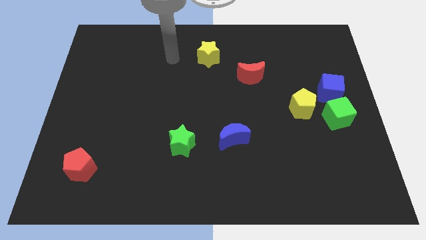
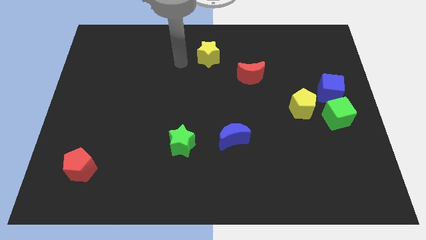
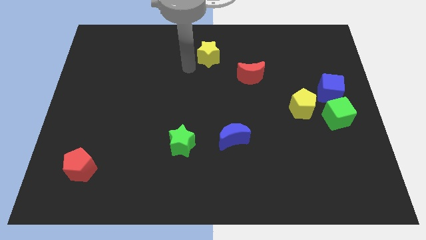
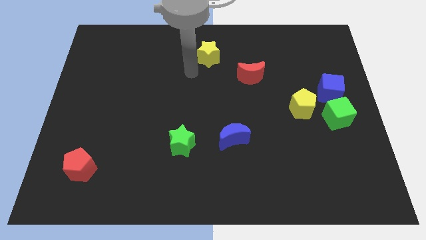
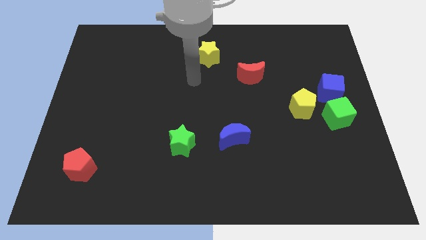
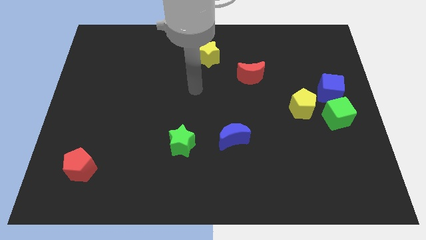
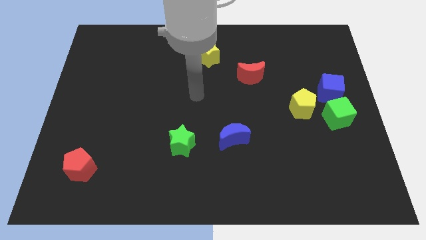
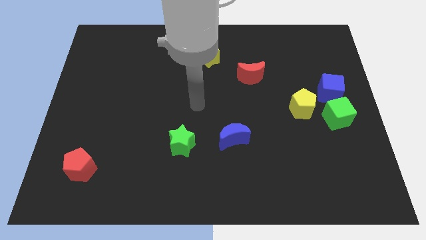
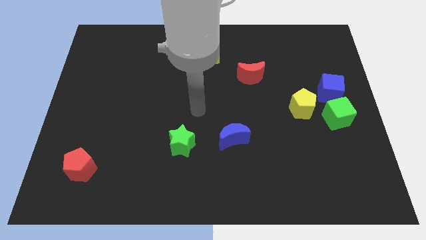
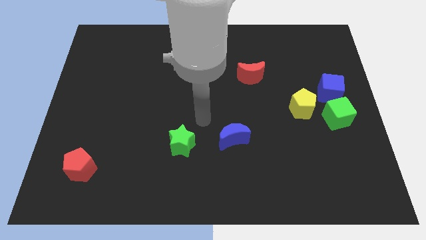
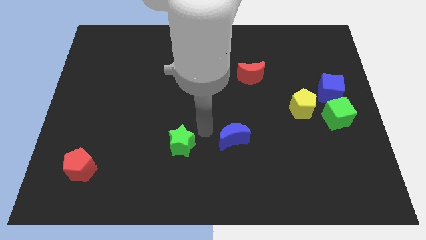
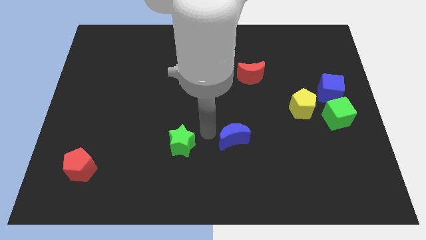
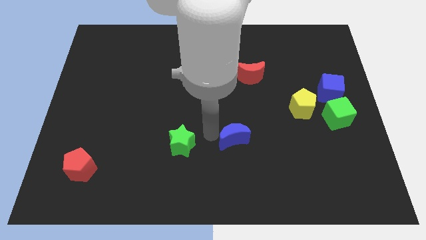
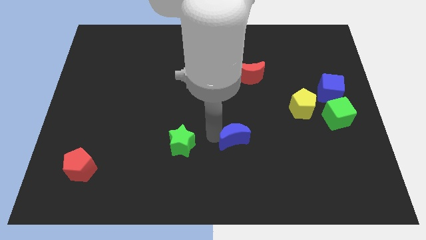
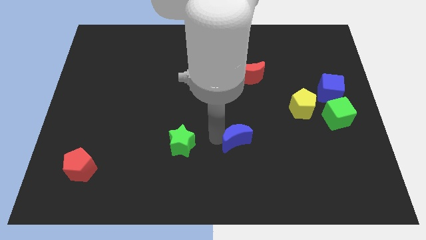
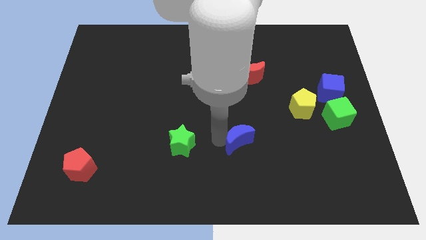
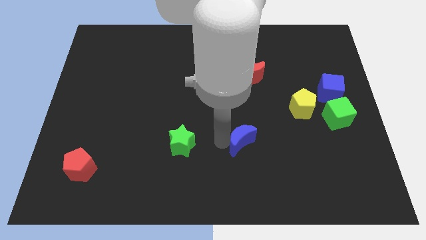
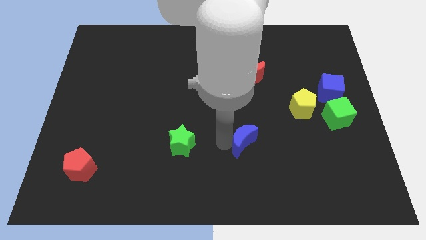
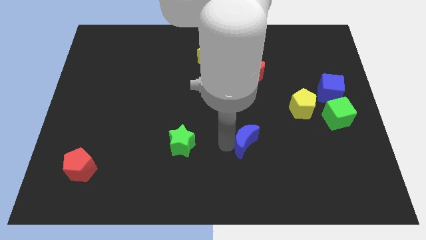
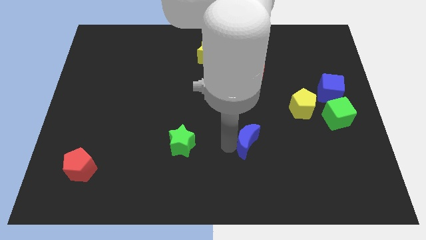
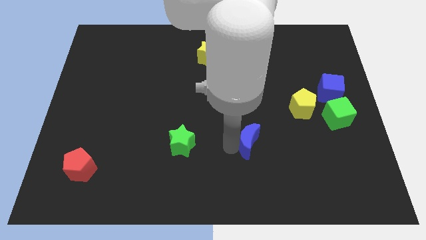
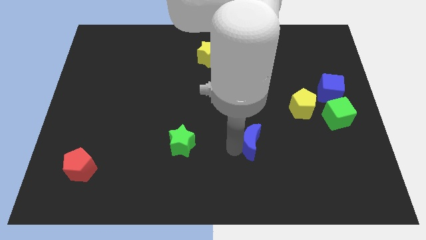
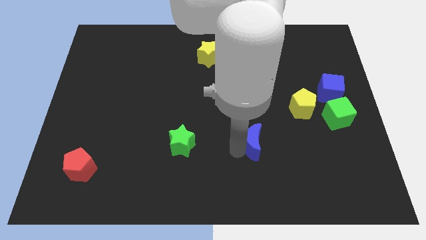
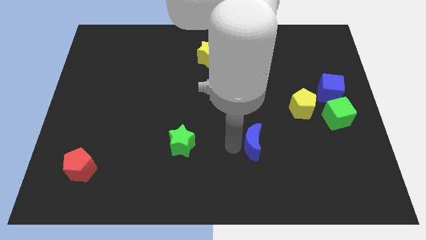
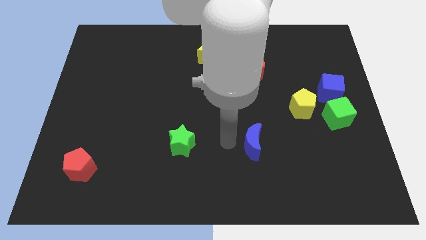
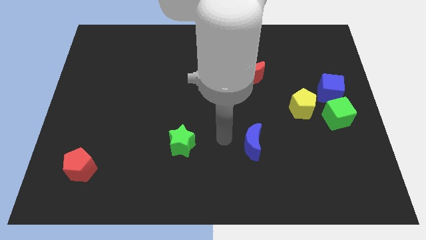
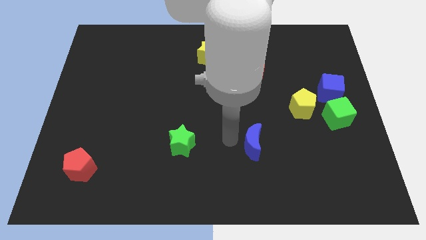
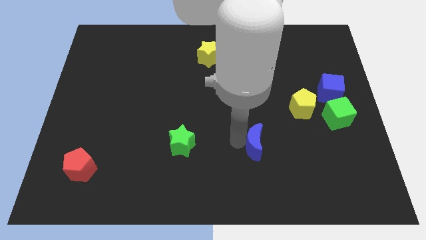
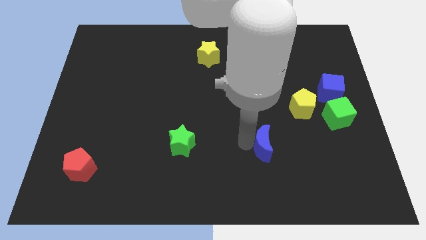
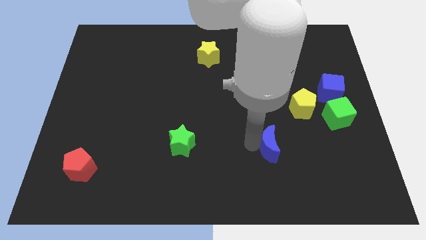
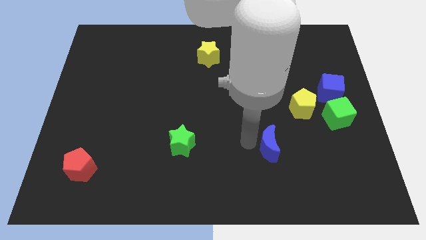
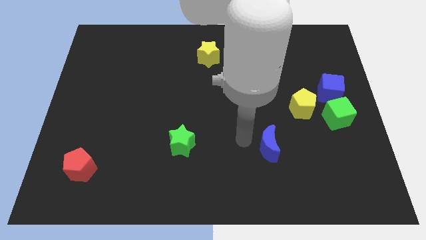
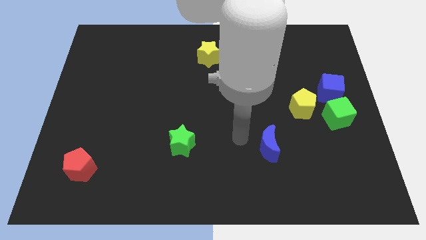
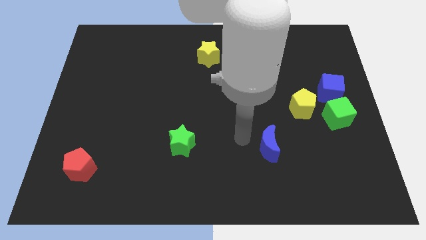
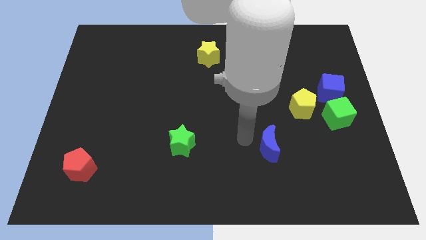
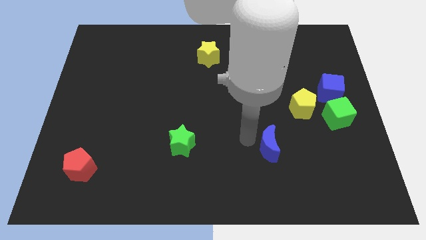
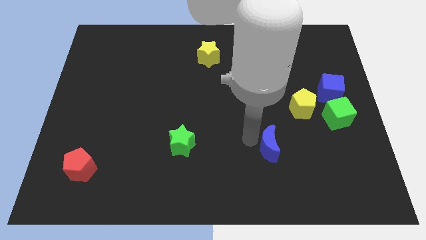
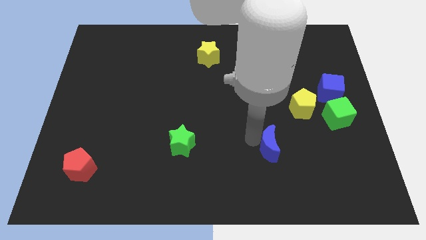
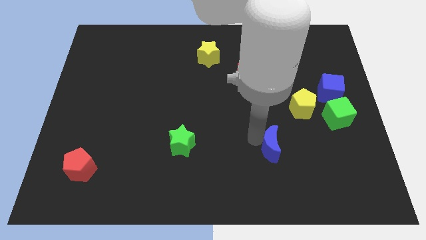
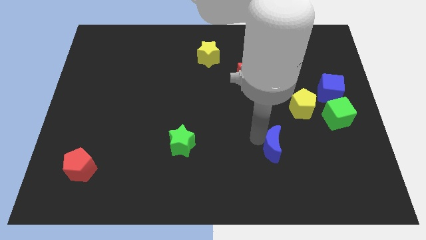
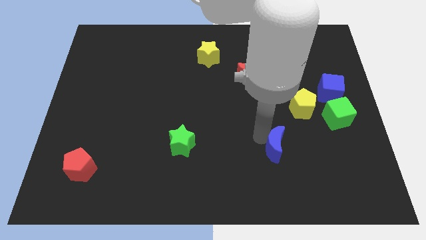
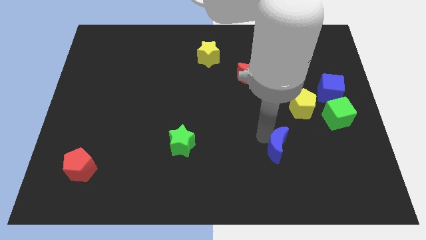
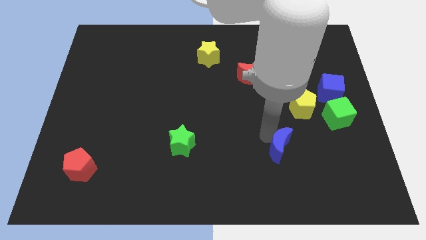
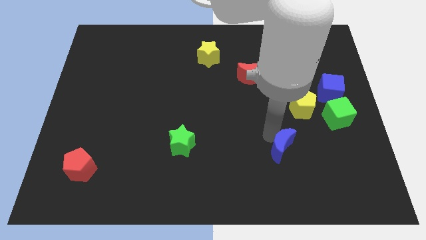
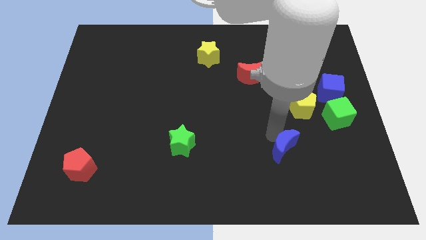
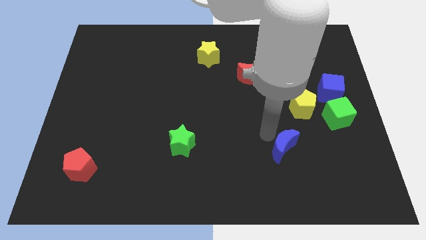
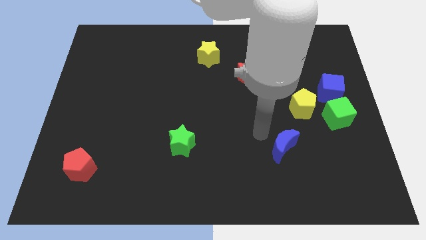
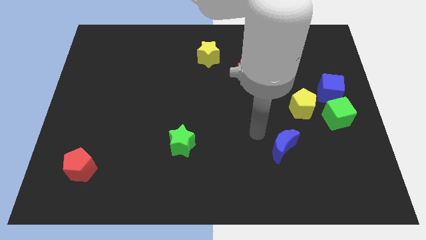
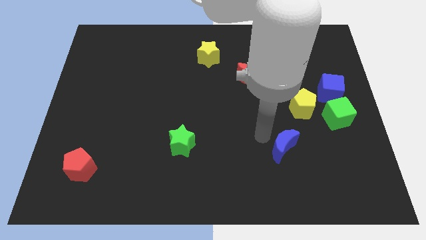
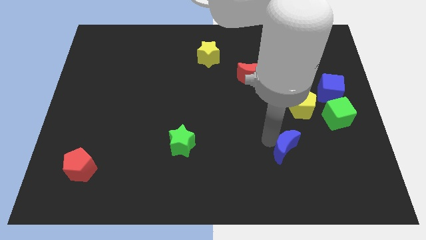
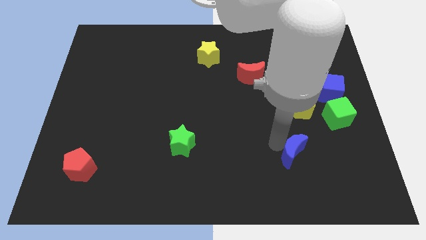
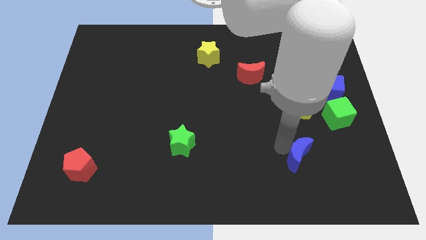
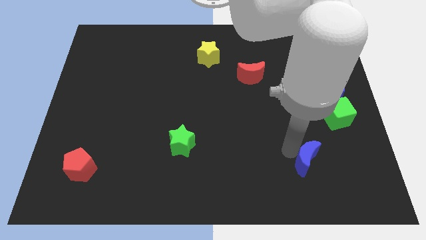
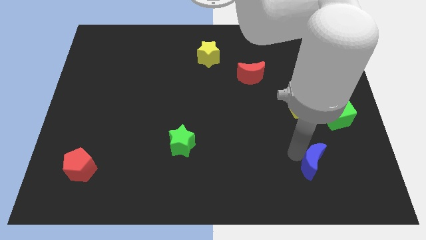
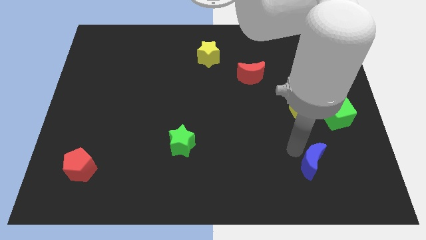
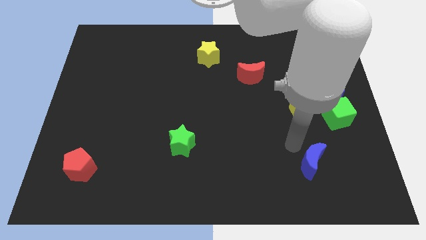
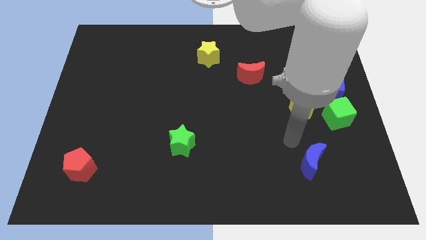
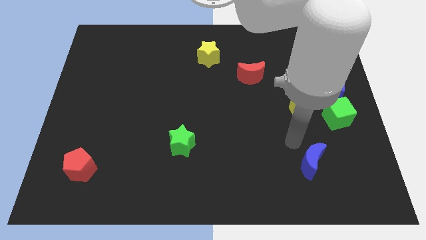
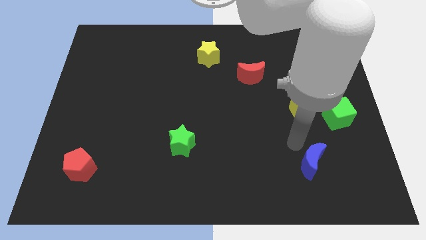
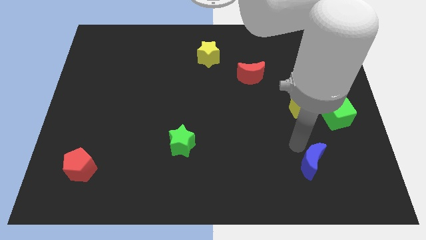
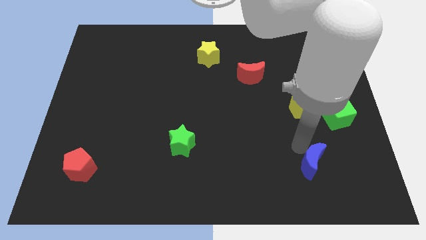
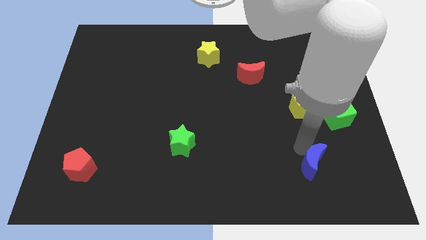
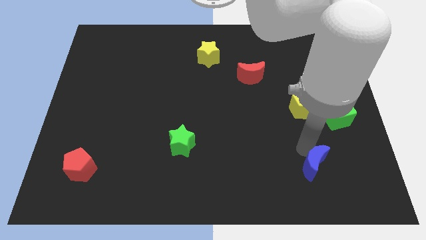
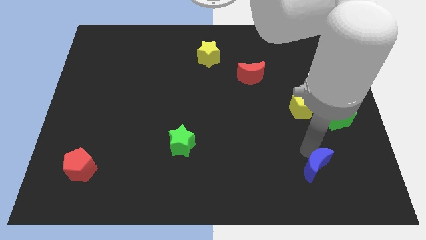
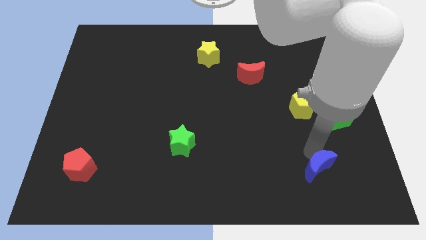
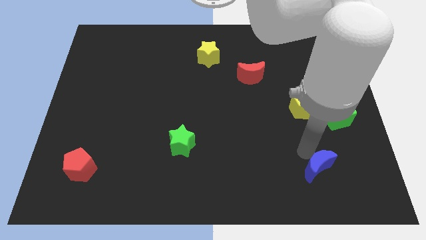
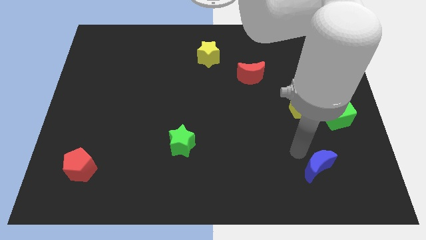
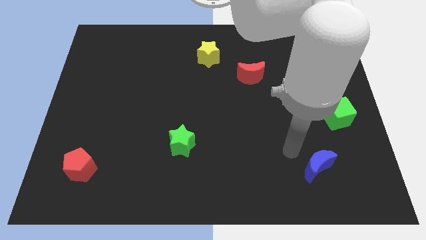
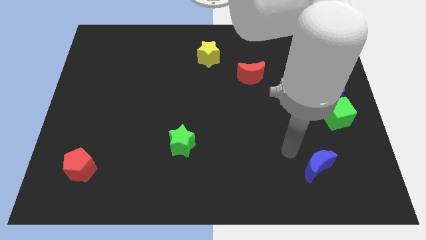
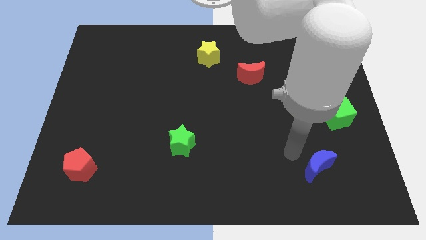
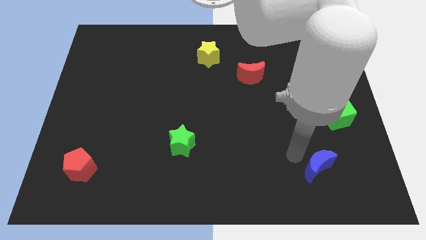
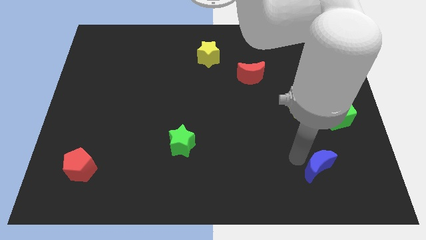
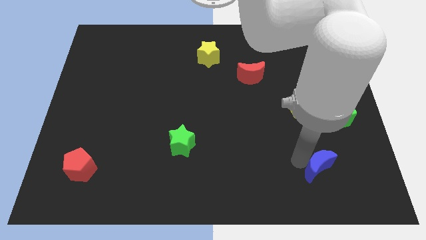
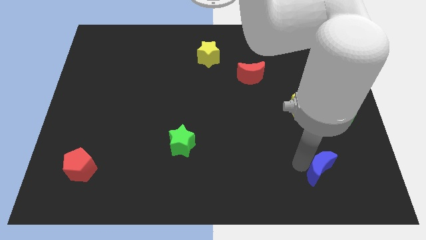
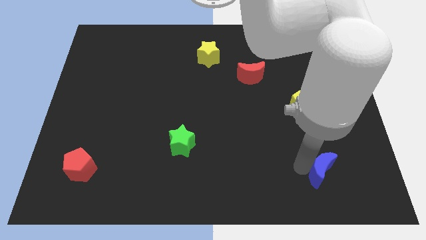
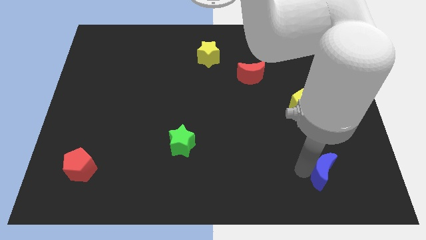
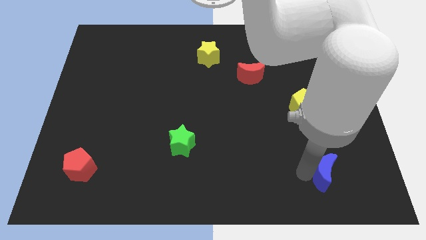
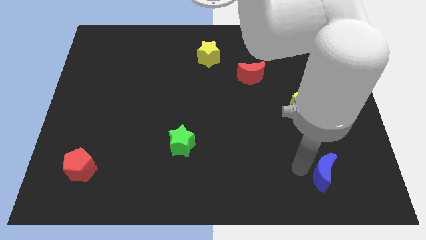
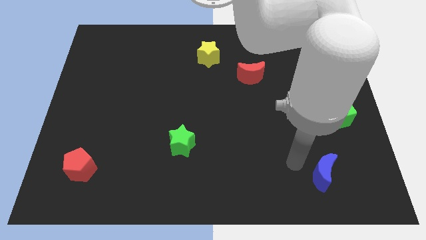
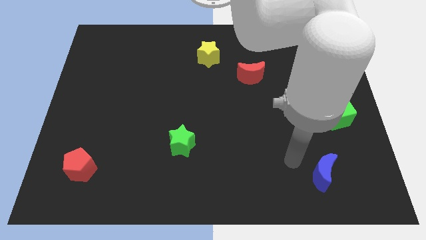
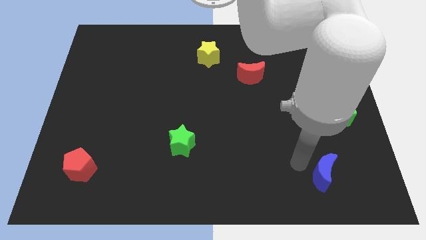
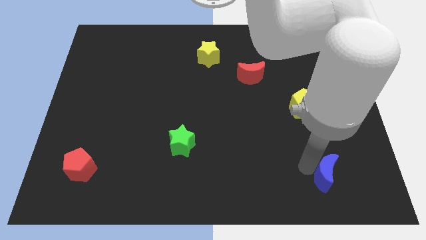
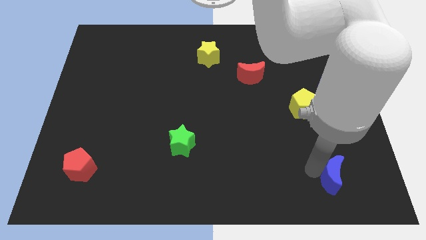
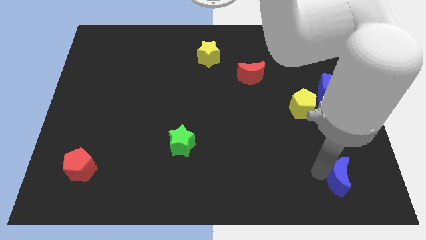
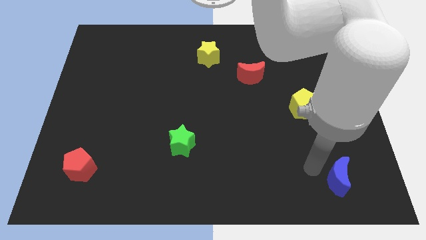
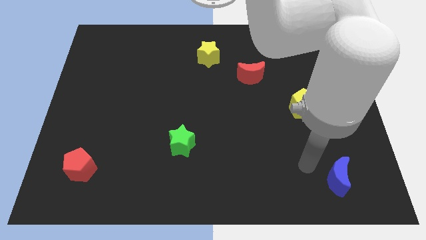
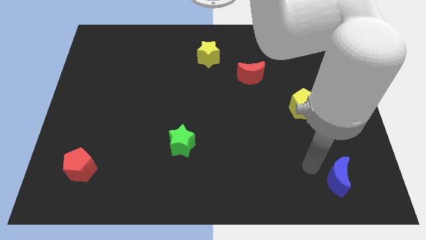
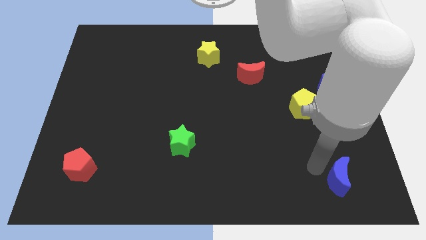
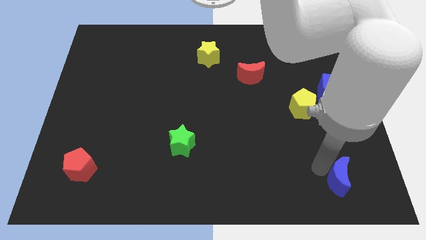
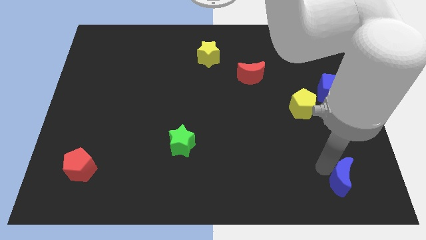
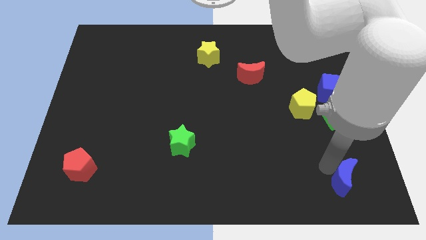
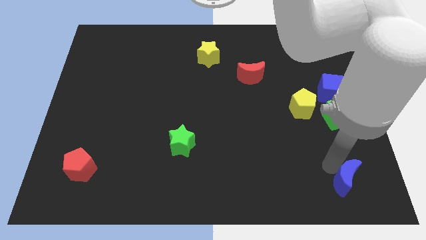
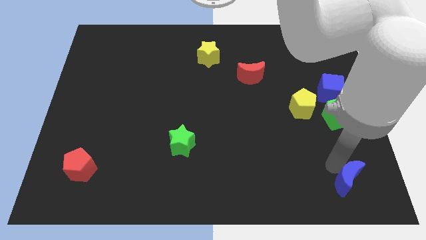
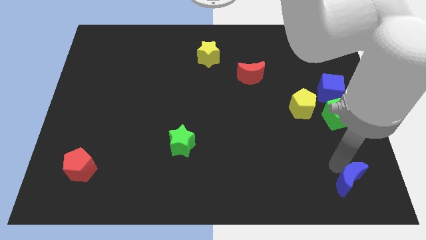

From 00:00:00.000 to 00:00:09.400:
put the blue moon to the bottom right corner
